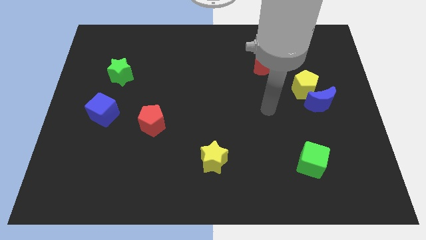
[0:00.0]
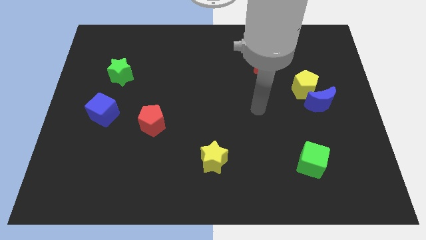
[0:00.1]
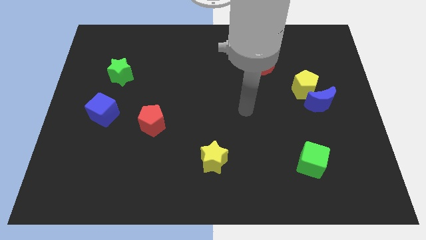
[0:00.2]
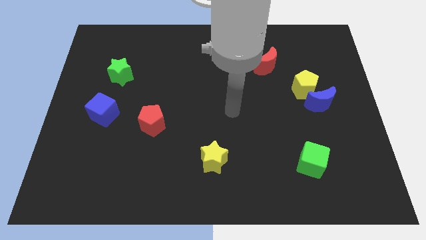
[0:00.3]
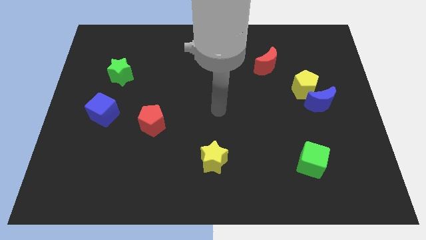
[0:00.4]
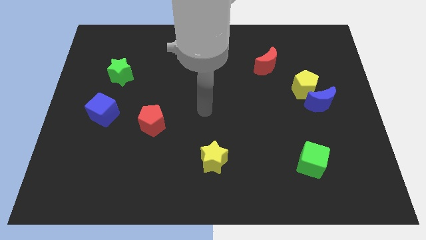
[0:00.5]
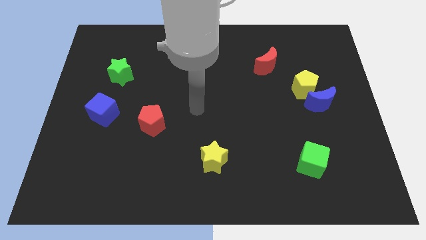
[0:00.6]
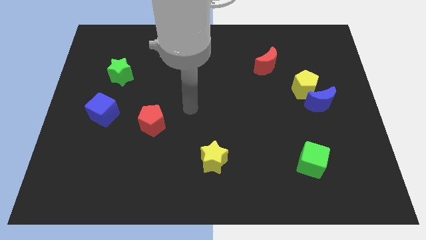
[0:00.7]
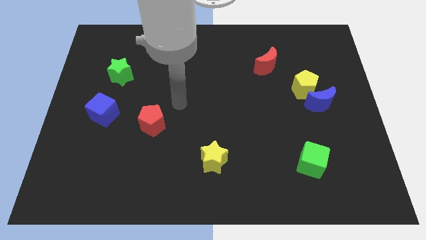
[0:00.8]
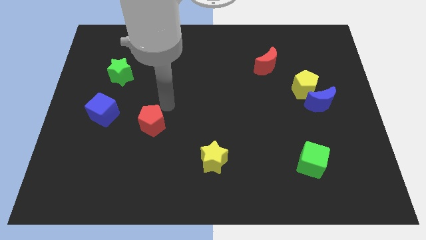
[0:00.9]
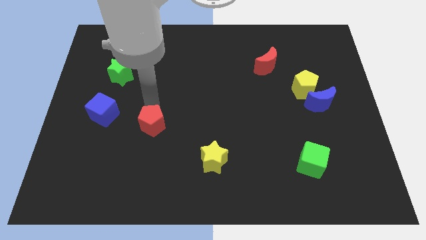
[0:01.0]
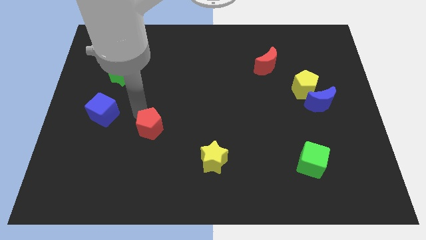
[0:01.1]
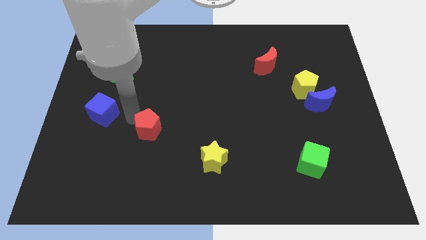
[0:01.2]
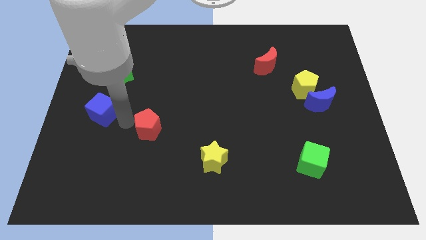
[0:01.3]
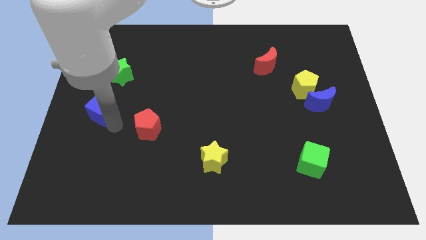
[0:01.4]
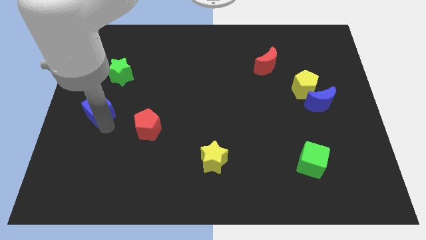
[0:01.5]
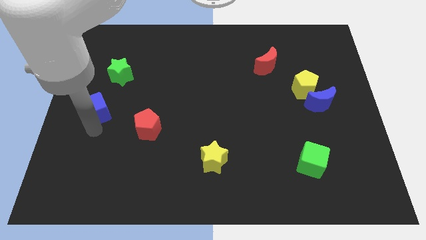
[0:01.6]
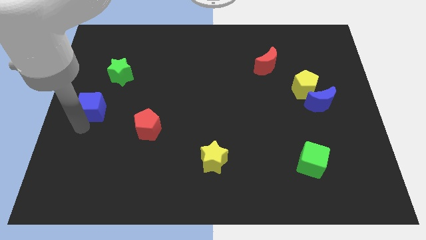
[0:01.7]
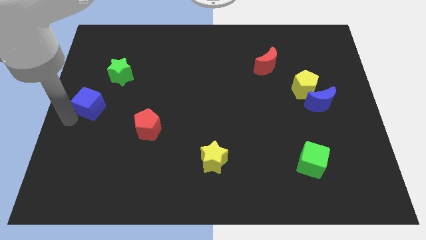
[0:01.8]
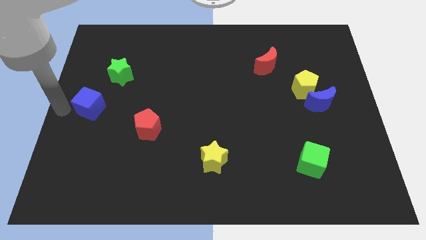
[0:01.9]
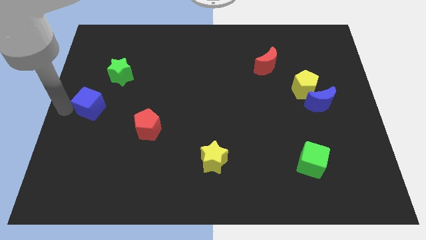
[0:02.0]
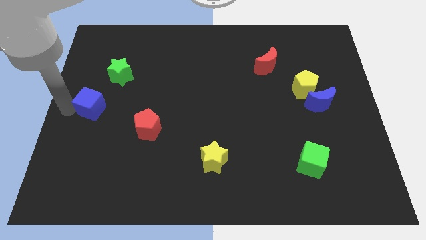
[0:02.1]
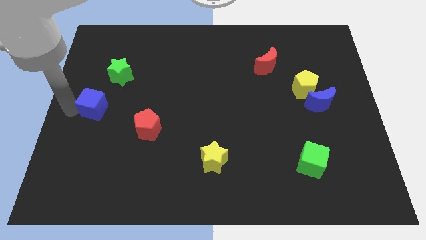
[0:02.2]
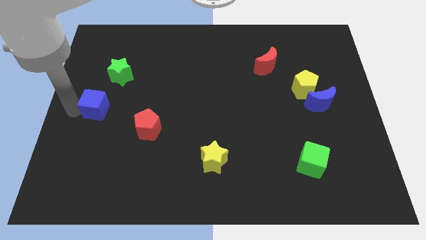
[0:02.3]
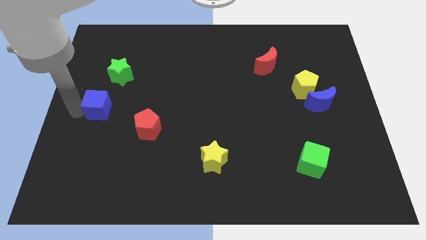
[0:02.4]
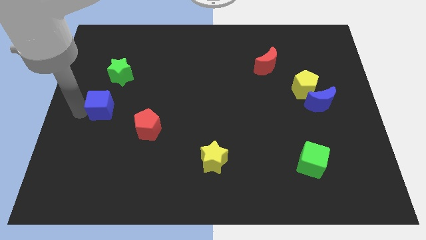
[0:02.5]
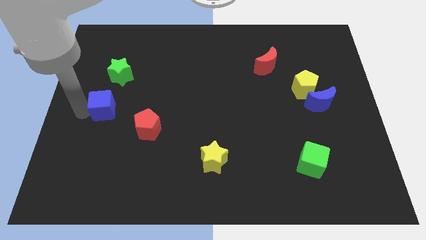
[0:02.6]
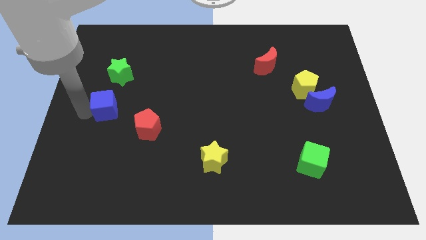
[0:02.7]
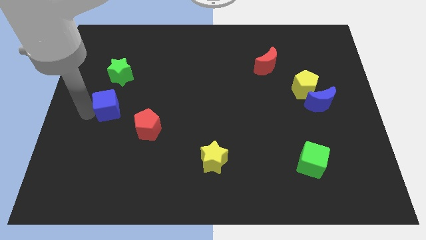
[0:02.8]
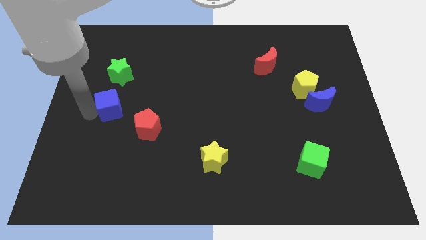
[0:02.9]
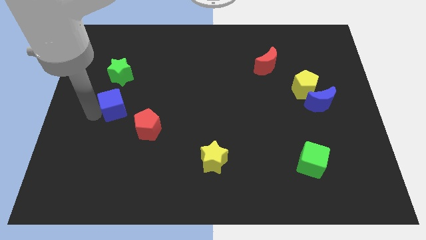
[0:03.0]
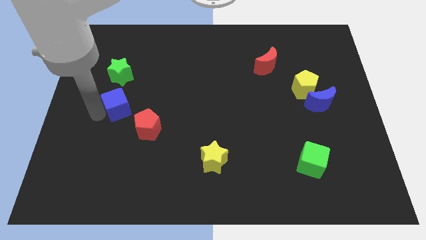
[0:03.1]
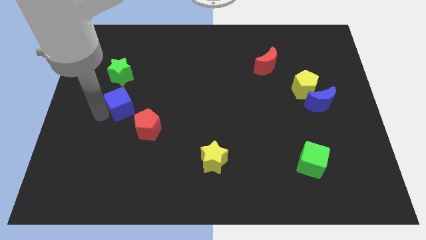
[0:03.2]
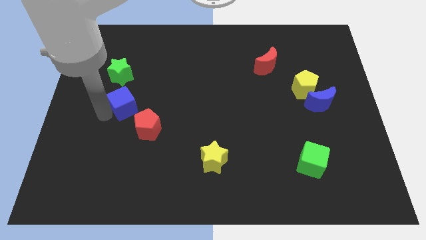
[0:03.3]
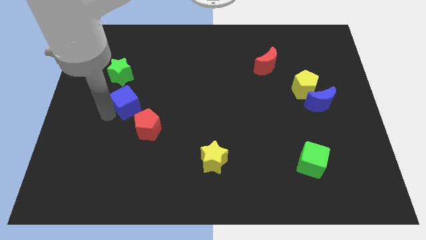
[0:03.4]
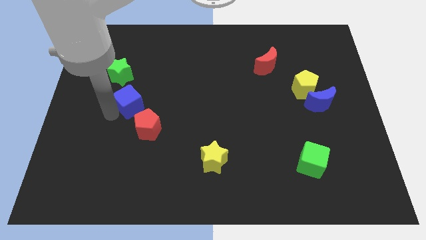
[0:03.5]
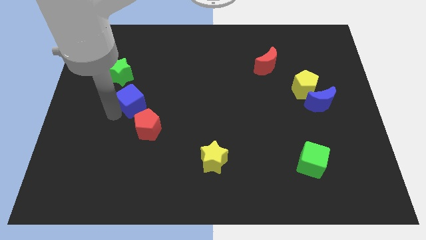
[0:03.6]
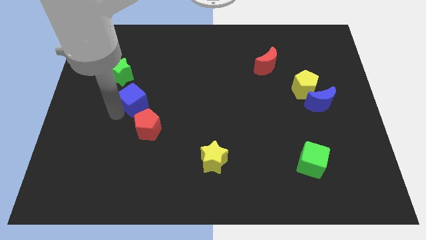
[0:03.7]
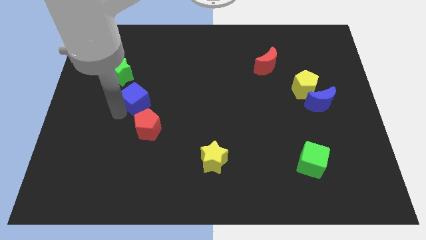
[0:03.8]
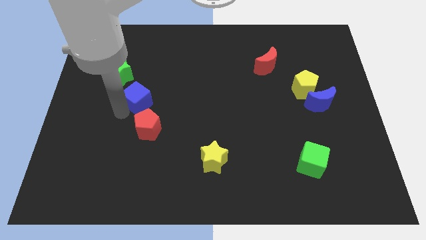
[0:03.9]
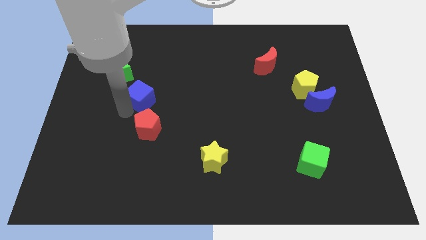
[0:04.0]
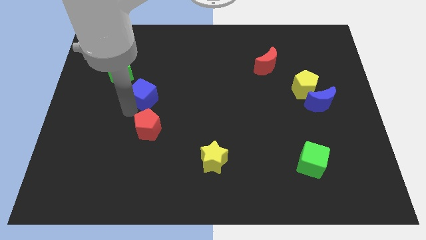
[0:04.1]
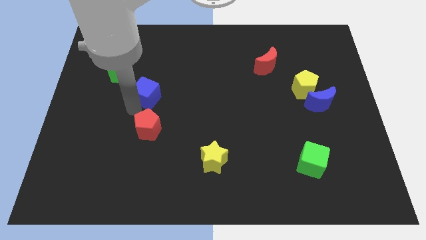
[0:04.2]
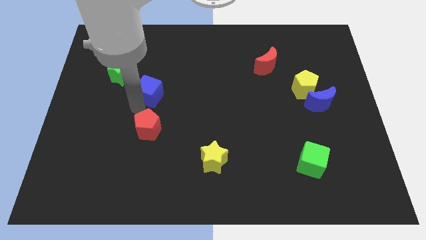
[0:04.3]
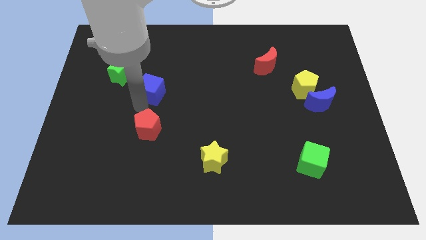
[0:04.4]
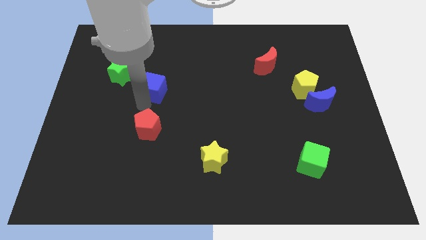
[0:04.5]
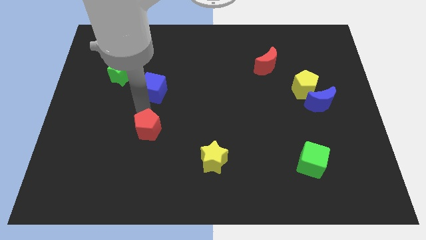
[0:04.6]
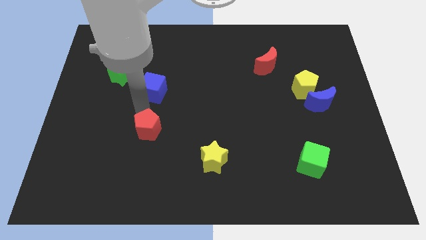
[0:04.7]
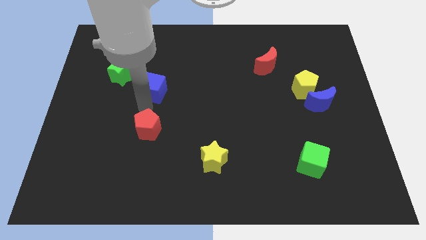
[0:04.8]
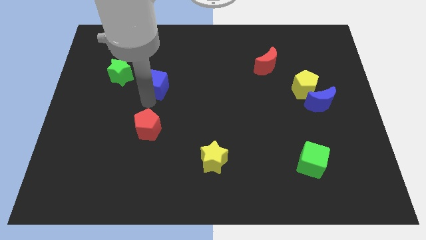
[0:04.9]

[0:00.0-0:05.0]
push the blue cube to the right of the green star

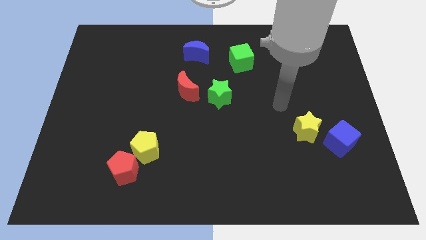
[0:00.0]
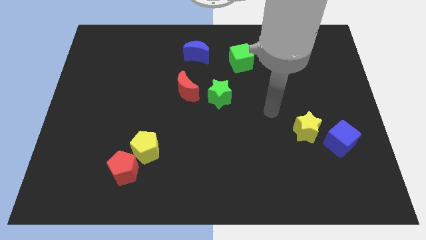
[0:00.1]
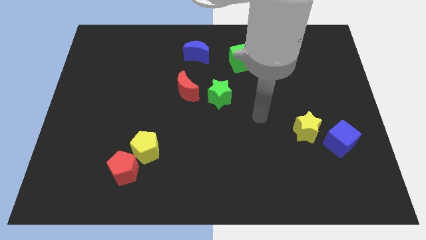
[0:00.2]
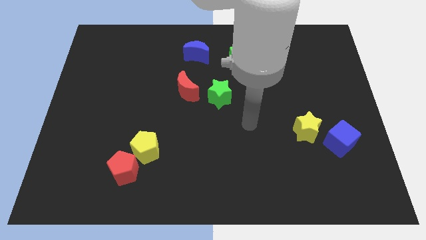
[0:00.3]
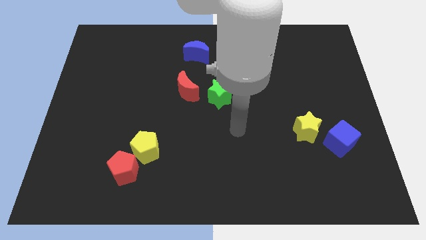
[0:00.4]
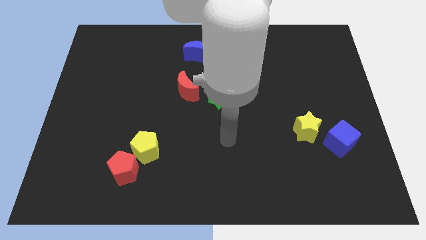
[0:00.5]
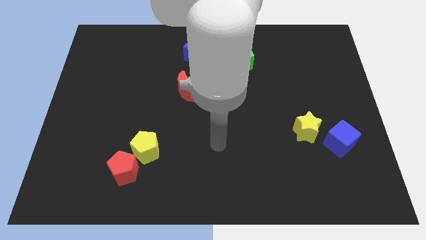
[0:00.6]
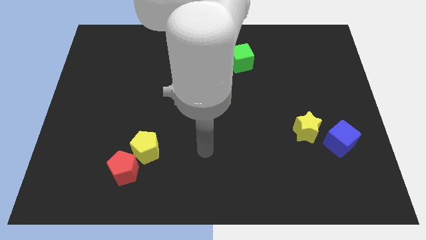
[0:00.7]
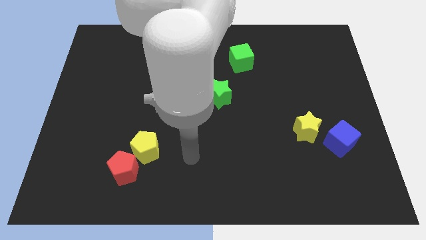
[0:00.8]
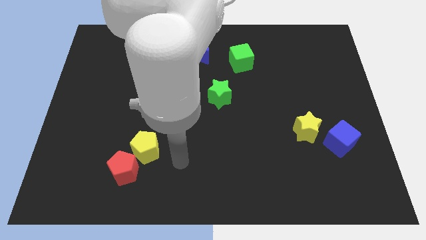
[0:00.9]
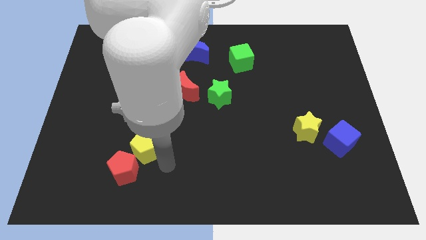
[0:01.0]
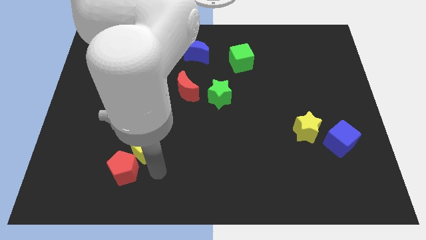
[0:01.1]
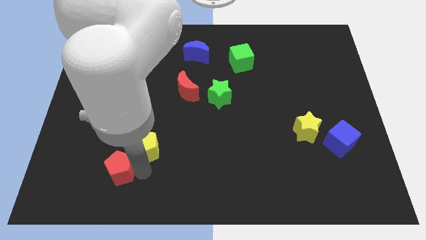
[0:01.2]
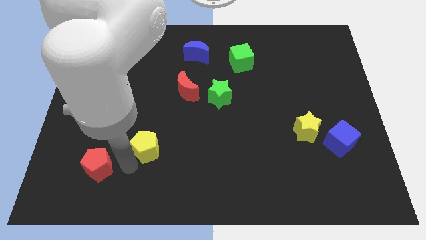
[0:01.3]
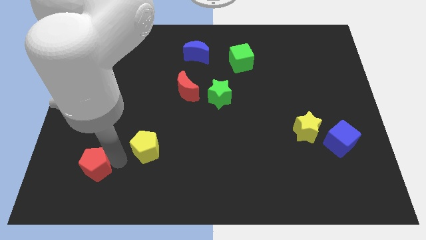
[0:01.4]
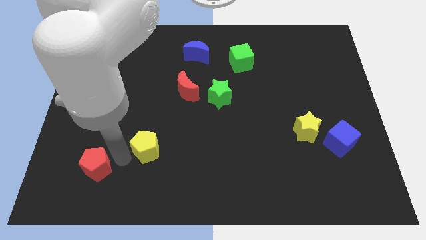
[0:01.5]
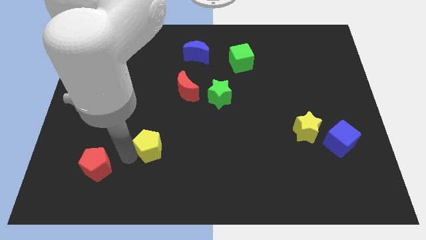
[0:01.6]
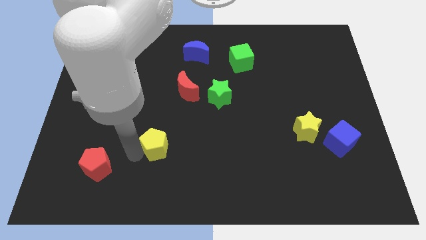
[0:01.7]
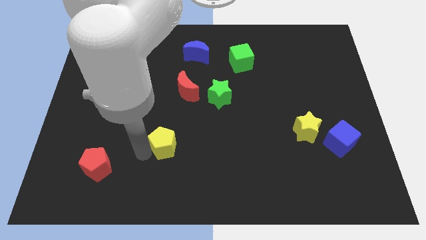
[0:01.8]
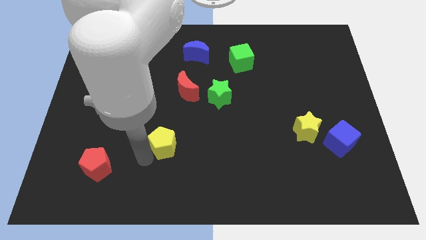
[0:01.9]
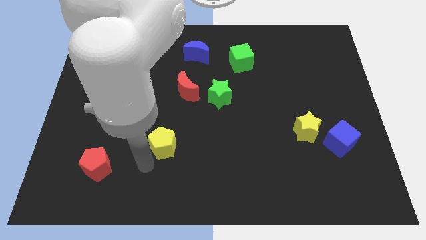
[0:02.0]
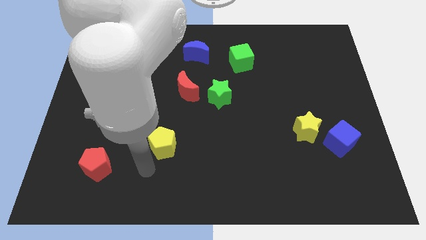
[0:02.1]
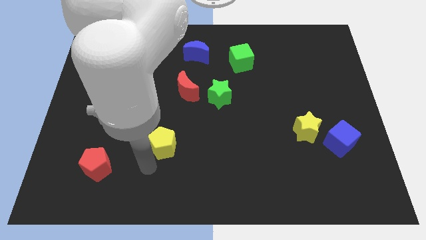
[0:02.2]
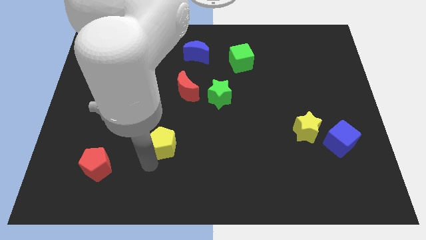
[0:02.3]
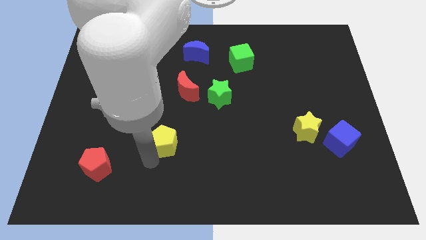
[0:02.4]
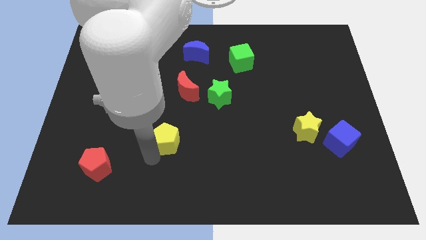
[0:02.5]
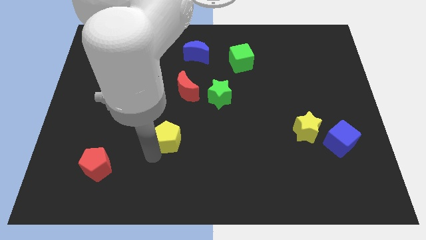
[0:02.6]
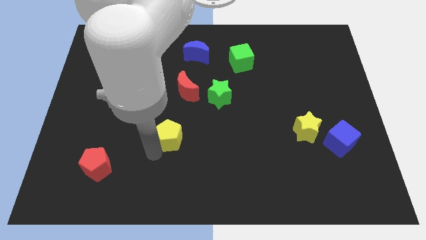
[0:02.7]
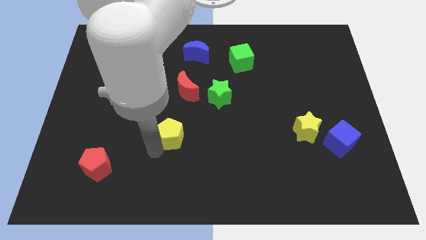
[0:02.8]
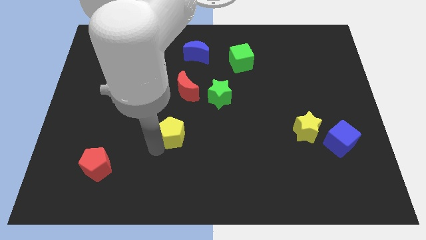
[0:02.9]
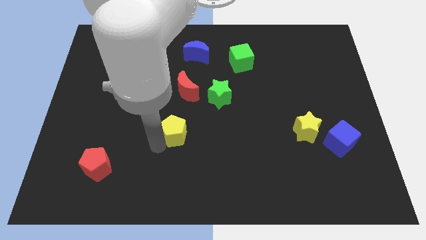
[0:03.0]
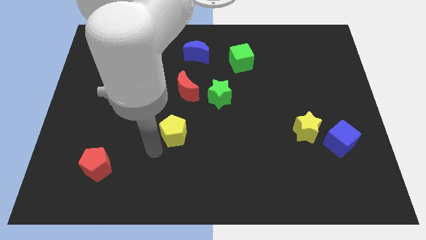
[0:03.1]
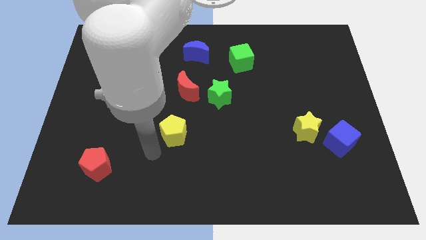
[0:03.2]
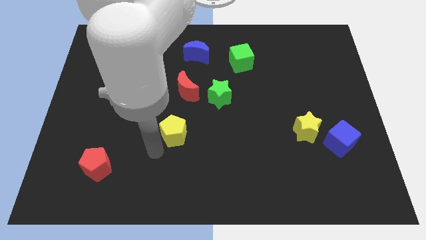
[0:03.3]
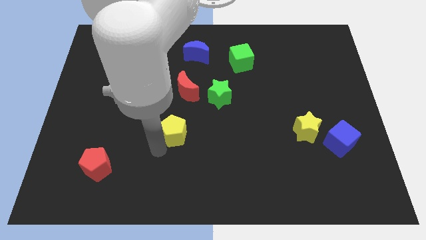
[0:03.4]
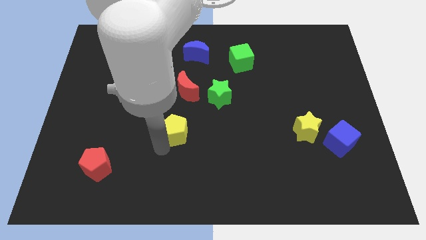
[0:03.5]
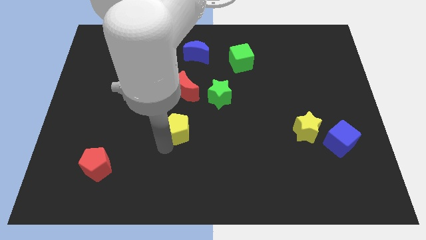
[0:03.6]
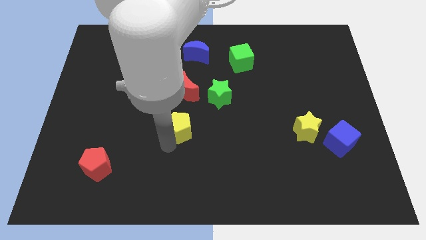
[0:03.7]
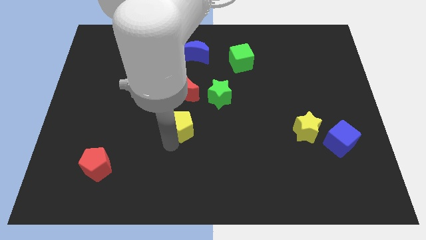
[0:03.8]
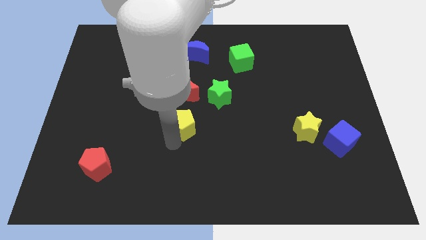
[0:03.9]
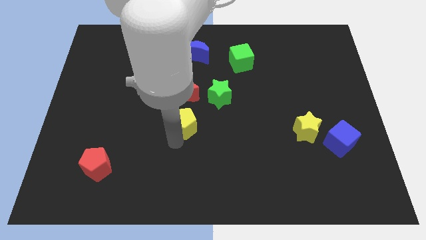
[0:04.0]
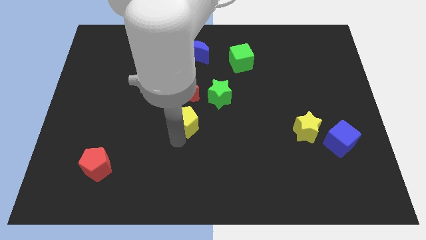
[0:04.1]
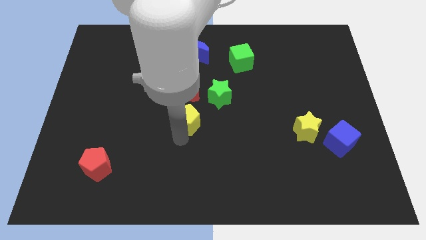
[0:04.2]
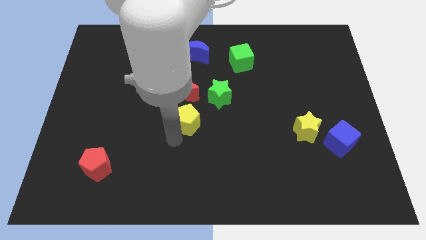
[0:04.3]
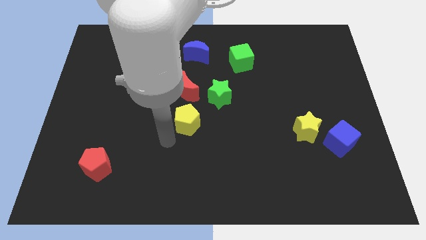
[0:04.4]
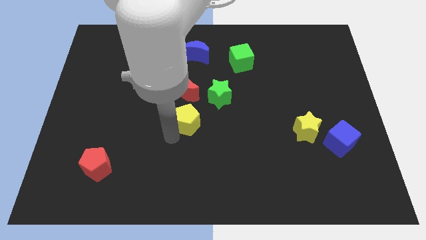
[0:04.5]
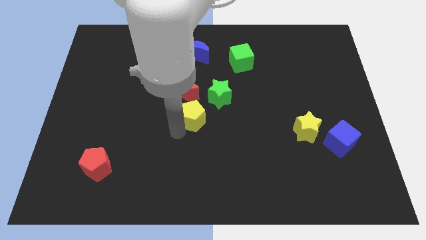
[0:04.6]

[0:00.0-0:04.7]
move the yellow pentagon diagonally down and to the right of the red moon
